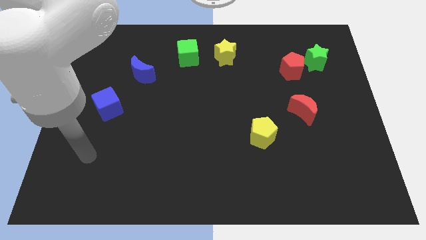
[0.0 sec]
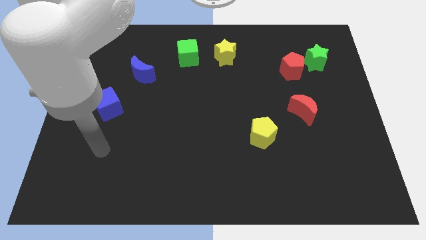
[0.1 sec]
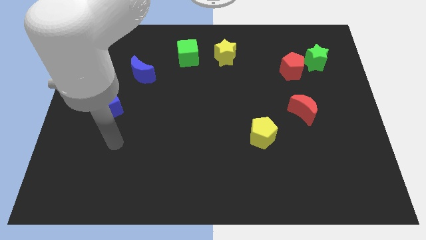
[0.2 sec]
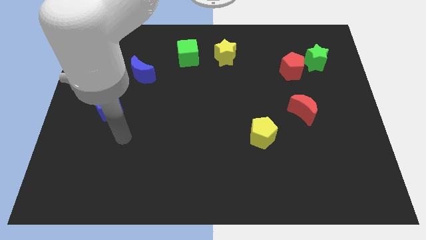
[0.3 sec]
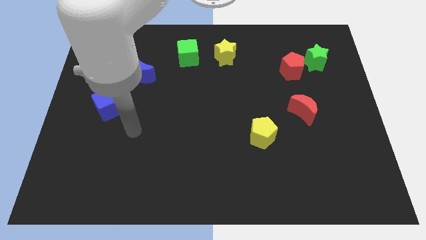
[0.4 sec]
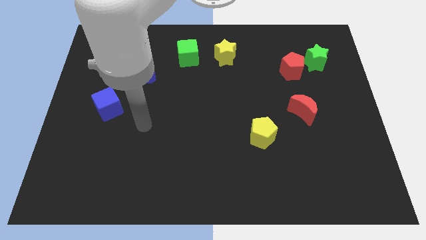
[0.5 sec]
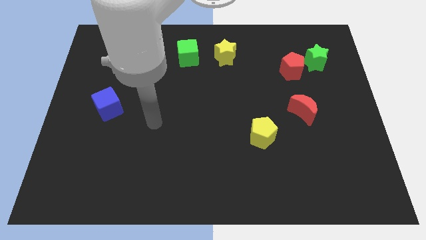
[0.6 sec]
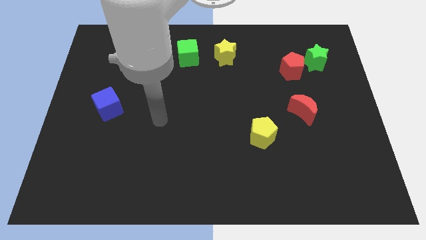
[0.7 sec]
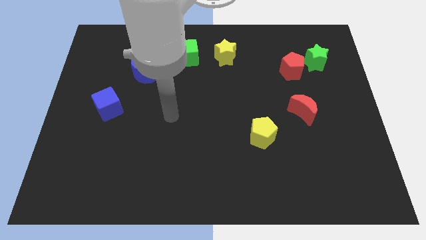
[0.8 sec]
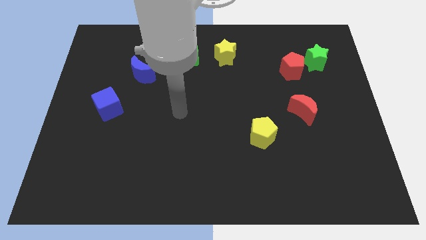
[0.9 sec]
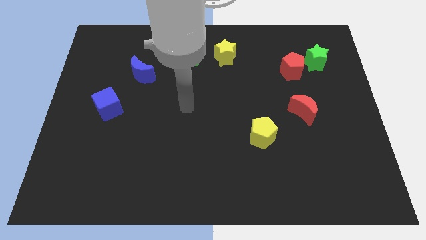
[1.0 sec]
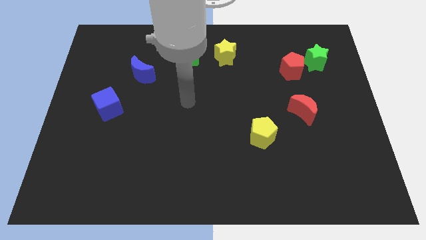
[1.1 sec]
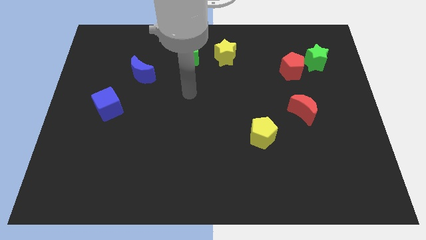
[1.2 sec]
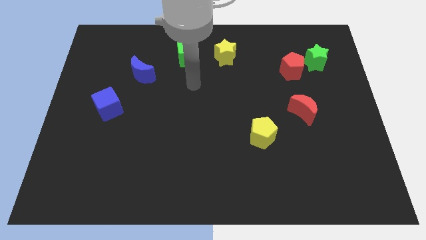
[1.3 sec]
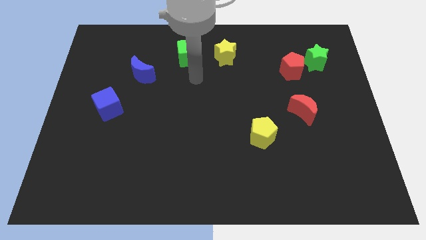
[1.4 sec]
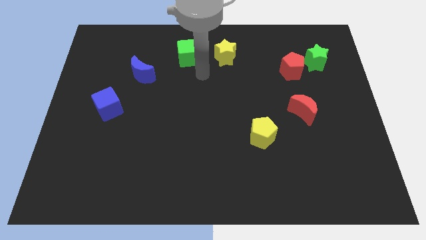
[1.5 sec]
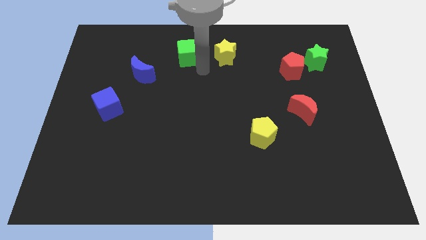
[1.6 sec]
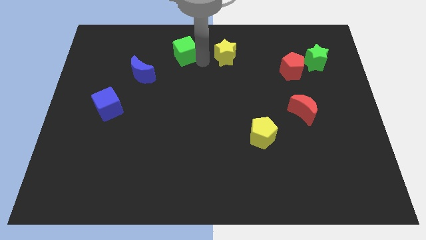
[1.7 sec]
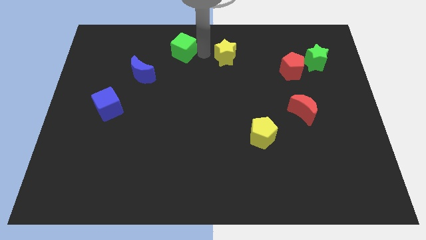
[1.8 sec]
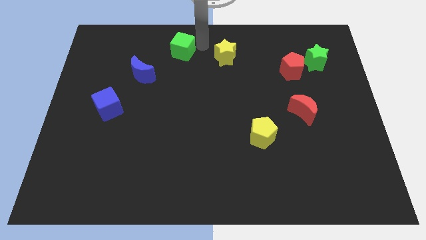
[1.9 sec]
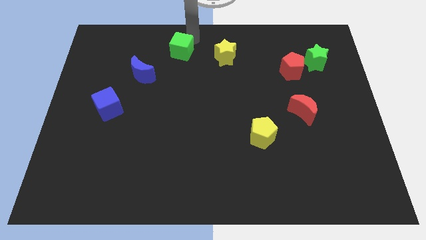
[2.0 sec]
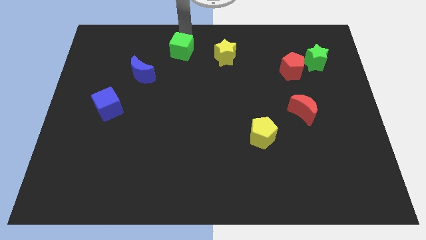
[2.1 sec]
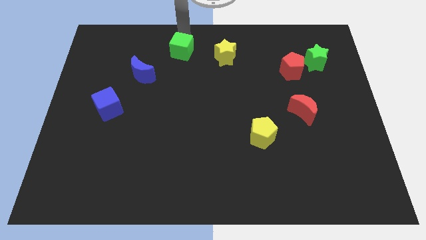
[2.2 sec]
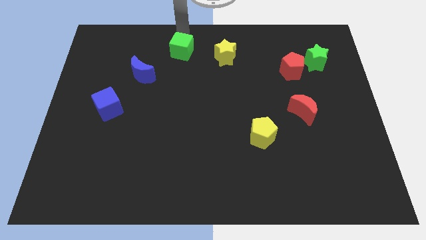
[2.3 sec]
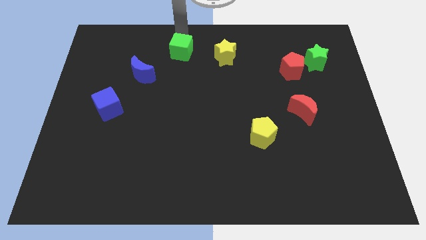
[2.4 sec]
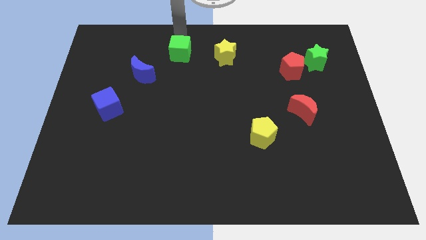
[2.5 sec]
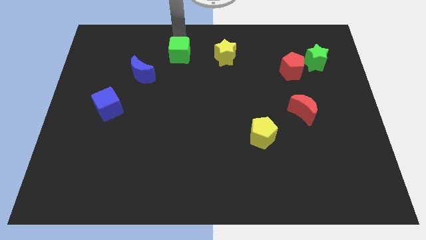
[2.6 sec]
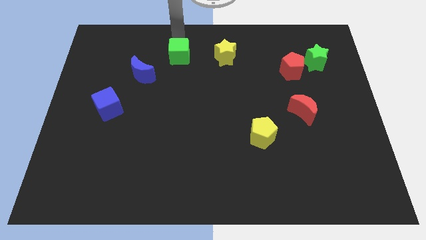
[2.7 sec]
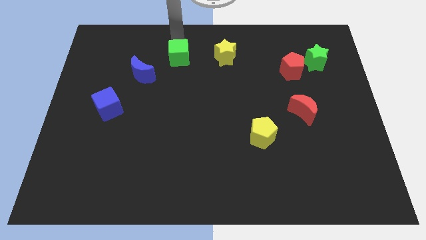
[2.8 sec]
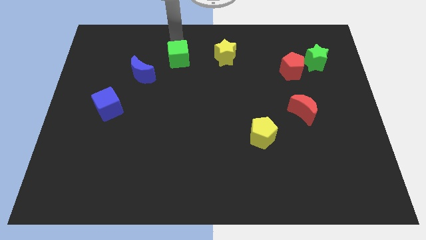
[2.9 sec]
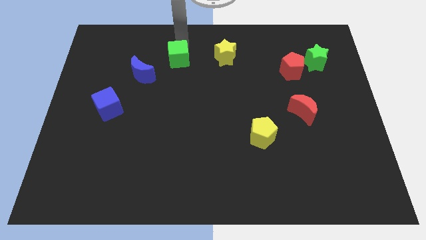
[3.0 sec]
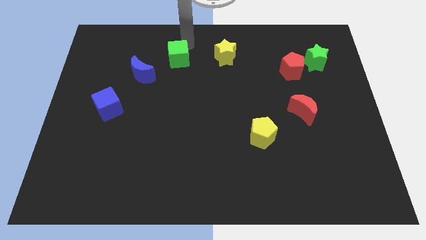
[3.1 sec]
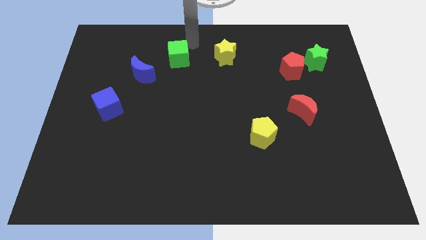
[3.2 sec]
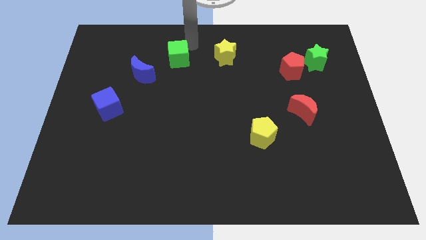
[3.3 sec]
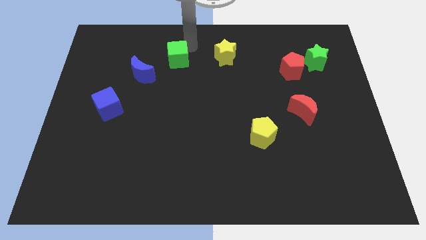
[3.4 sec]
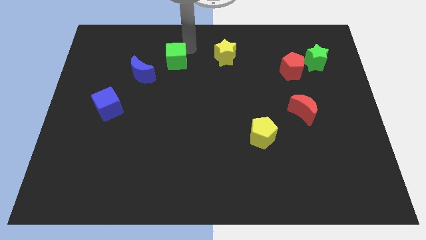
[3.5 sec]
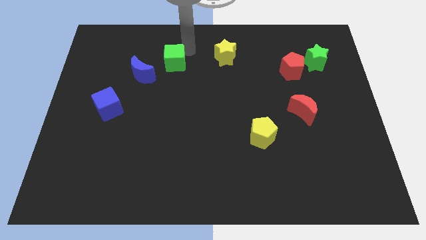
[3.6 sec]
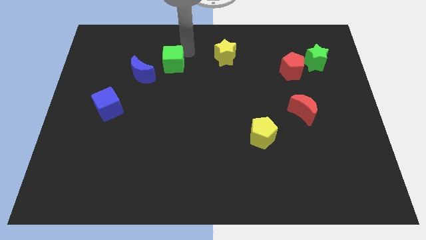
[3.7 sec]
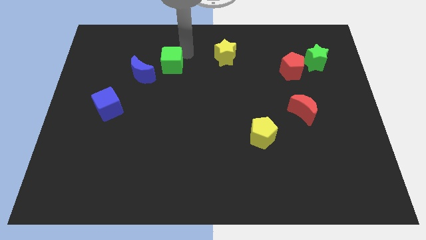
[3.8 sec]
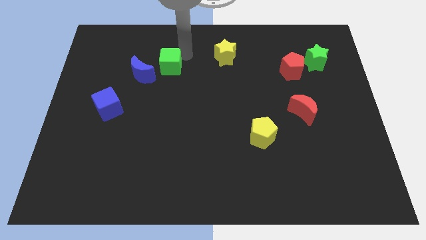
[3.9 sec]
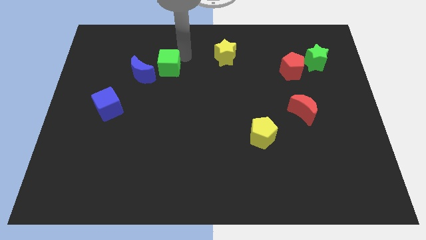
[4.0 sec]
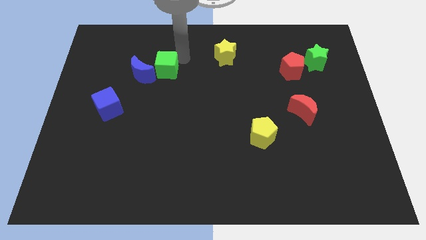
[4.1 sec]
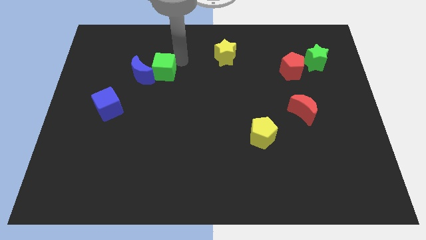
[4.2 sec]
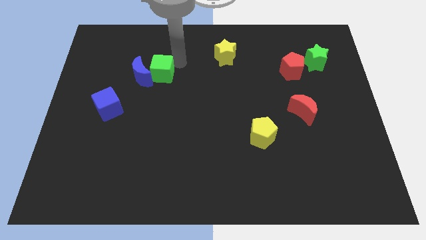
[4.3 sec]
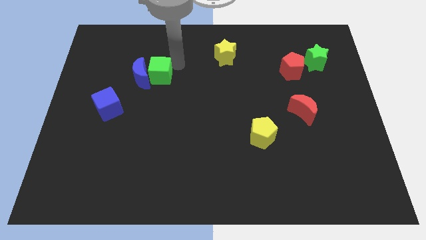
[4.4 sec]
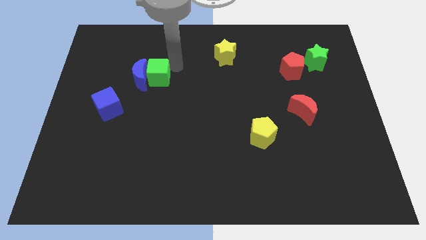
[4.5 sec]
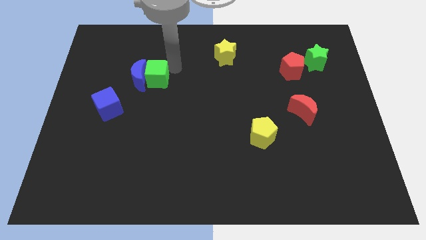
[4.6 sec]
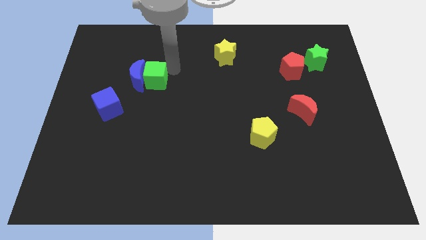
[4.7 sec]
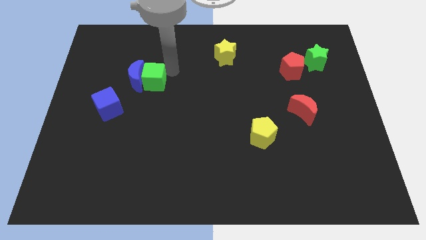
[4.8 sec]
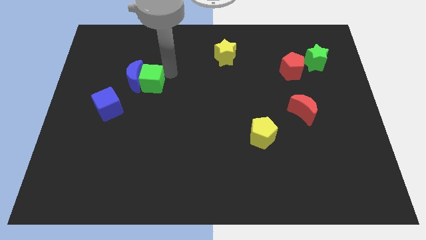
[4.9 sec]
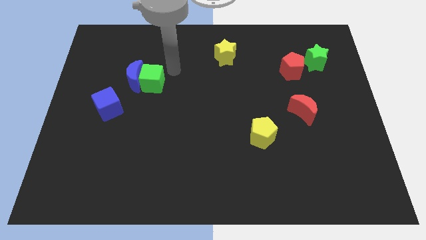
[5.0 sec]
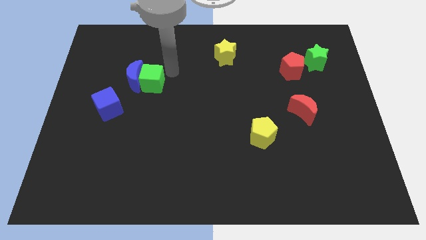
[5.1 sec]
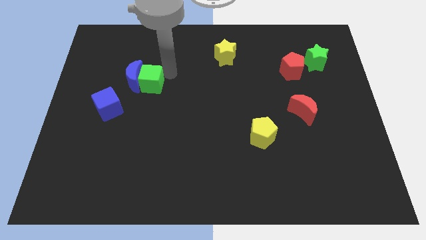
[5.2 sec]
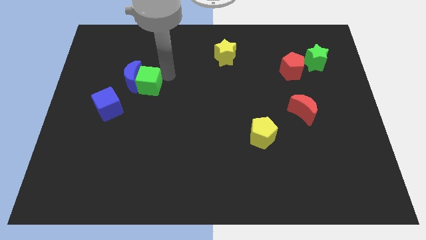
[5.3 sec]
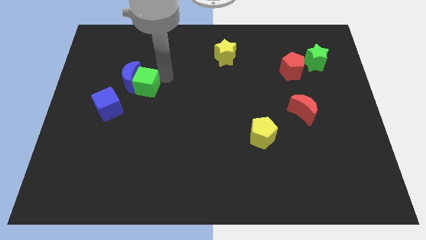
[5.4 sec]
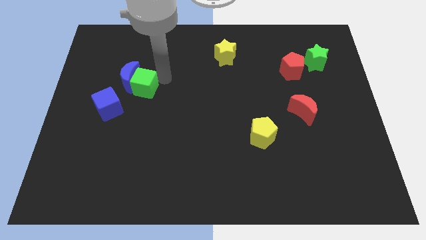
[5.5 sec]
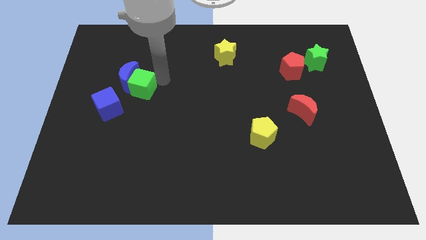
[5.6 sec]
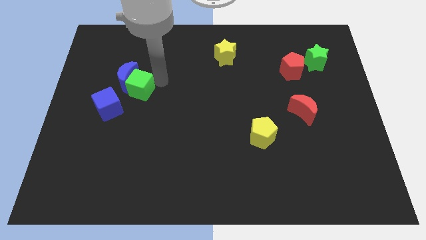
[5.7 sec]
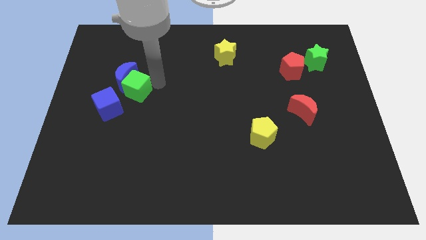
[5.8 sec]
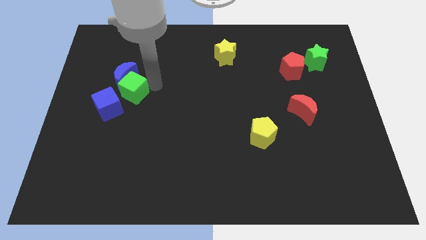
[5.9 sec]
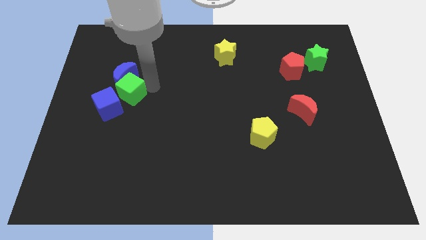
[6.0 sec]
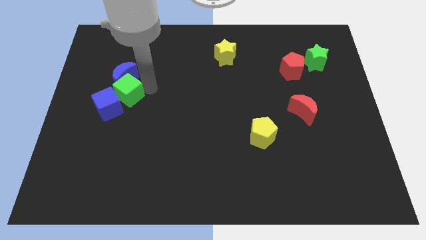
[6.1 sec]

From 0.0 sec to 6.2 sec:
put the green cube to the blue cube

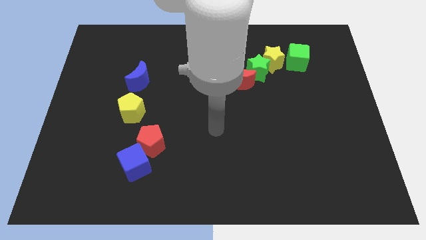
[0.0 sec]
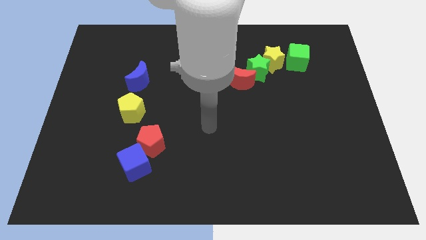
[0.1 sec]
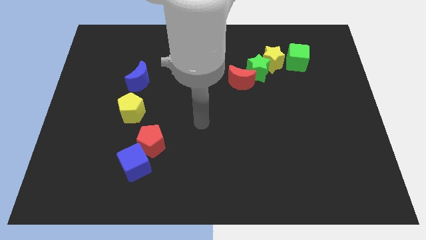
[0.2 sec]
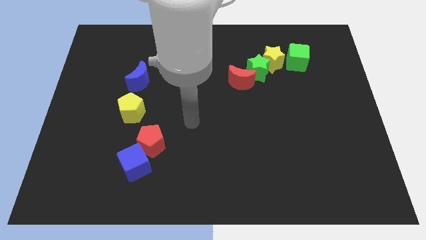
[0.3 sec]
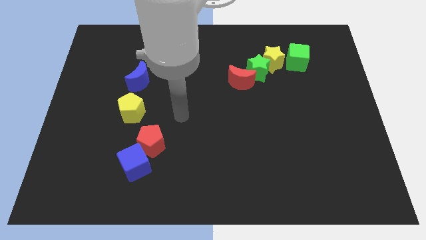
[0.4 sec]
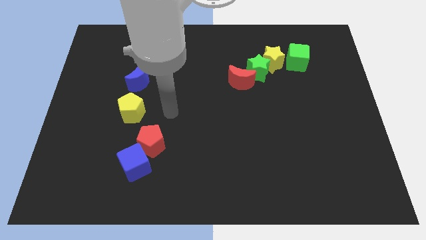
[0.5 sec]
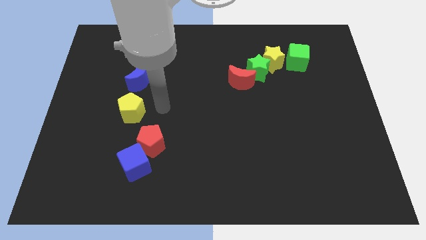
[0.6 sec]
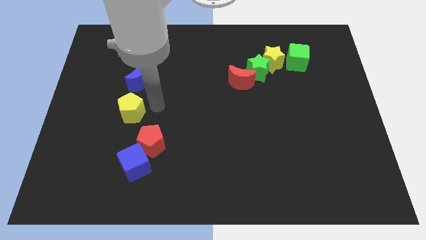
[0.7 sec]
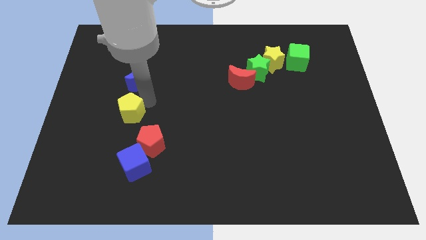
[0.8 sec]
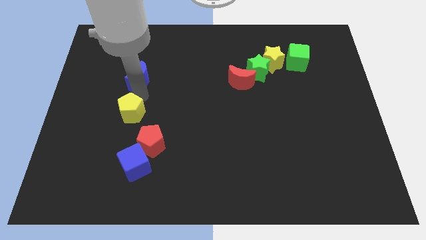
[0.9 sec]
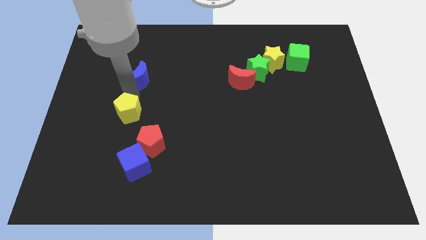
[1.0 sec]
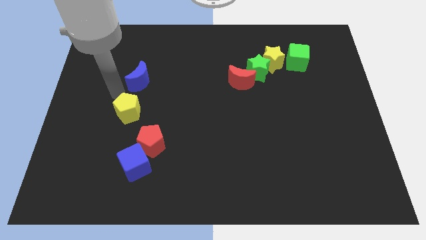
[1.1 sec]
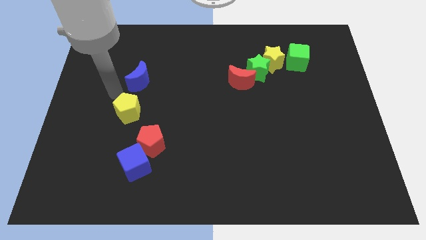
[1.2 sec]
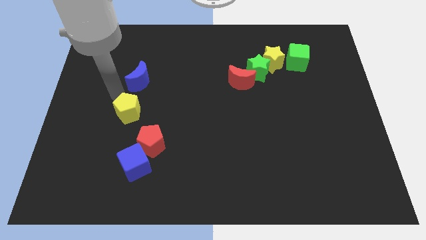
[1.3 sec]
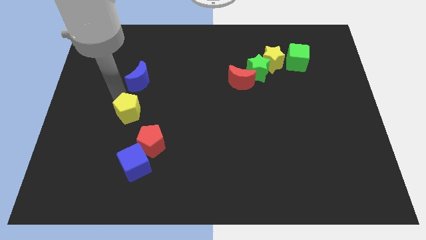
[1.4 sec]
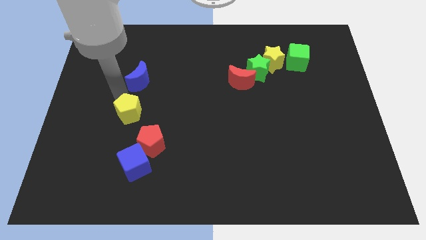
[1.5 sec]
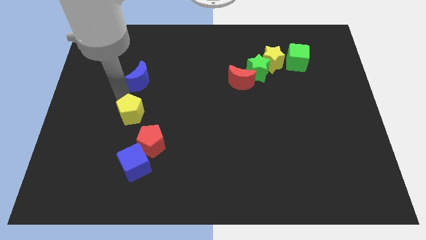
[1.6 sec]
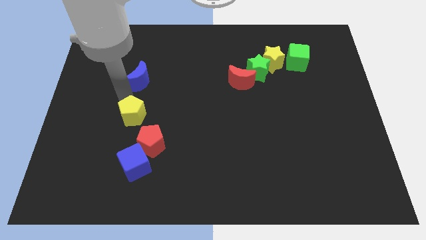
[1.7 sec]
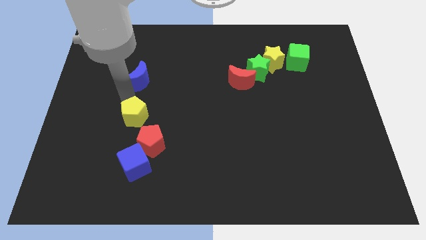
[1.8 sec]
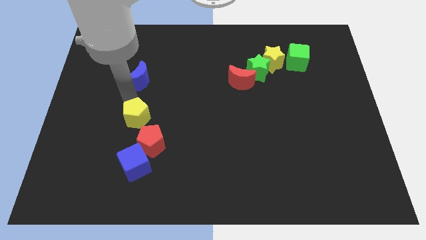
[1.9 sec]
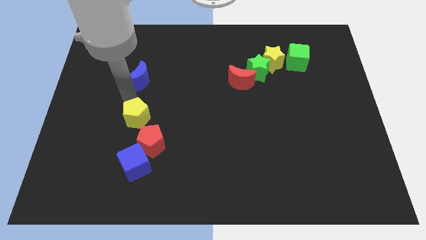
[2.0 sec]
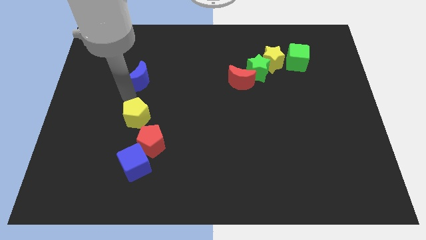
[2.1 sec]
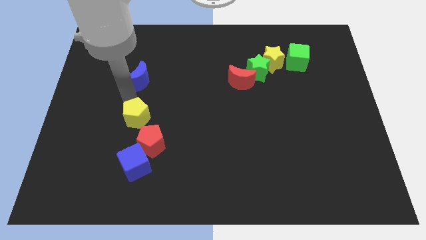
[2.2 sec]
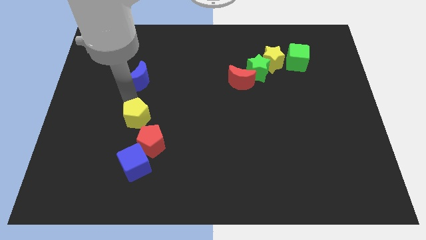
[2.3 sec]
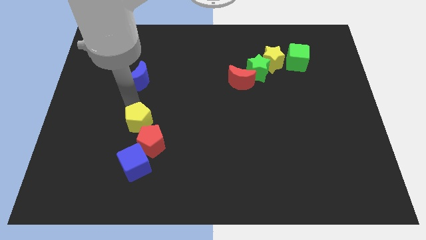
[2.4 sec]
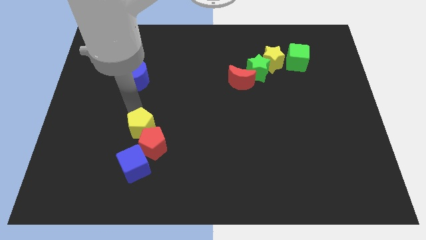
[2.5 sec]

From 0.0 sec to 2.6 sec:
move the yellow pentagon towards the red pentagon
